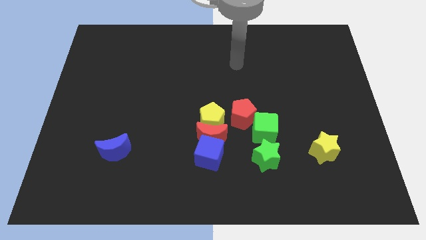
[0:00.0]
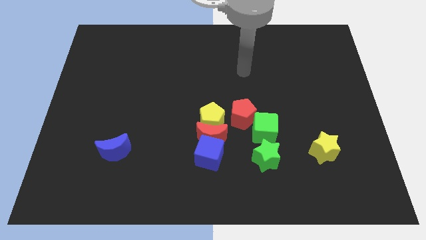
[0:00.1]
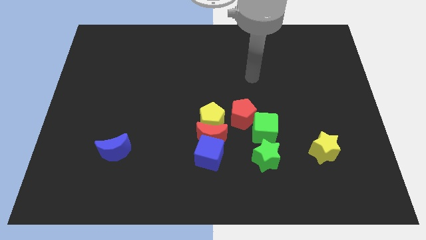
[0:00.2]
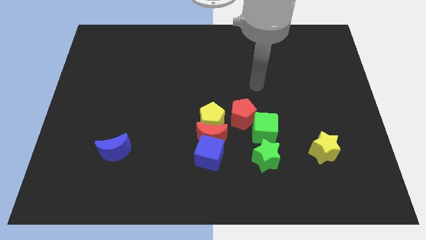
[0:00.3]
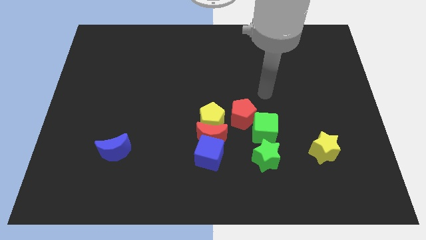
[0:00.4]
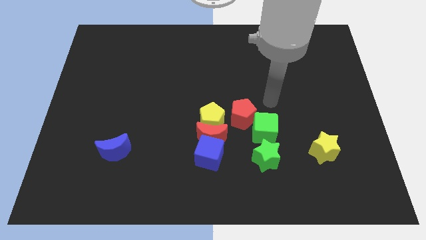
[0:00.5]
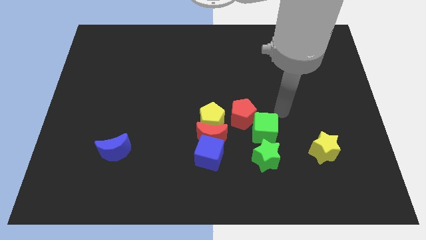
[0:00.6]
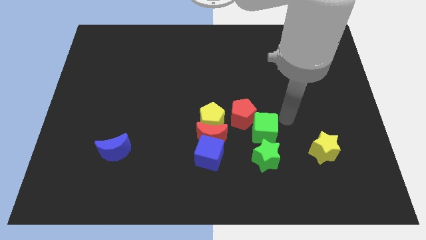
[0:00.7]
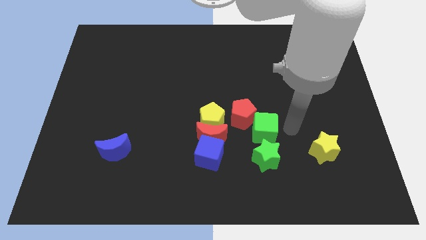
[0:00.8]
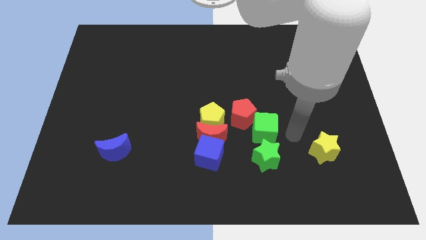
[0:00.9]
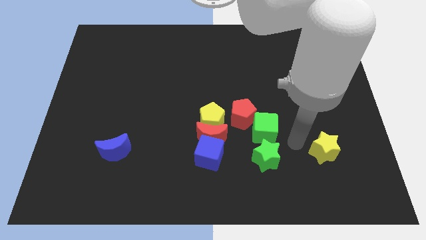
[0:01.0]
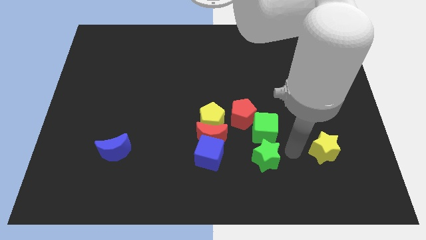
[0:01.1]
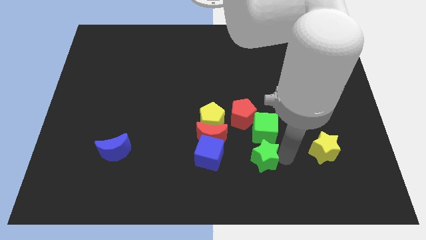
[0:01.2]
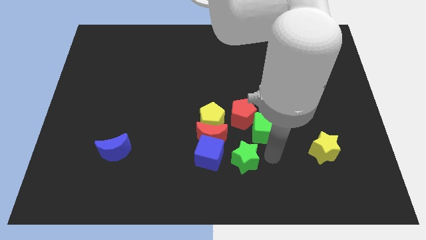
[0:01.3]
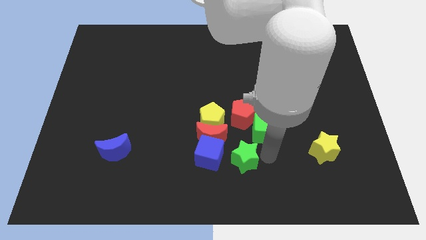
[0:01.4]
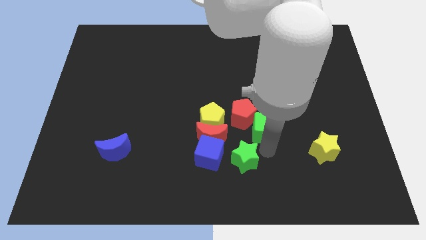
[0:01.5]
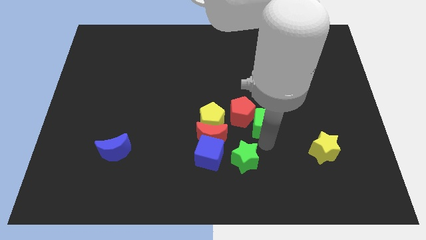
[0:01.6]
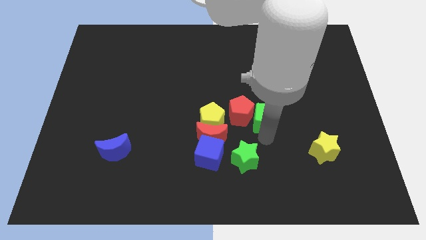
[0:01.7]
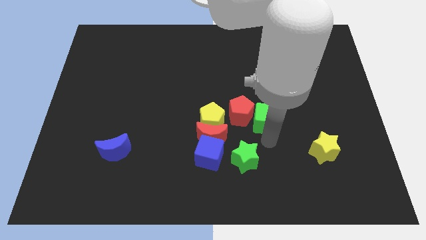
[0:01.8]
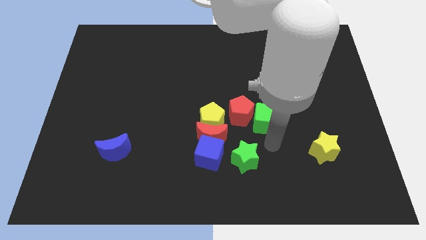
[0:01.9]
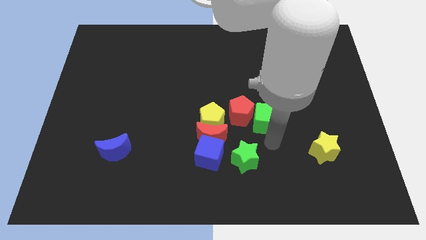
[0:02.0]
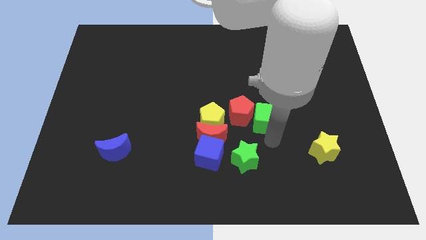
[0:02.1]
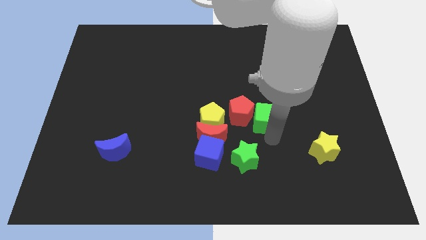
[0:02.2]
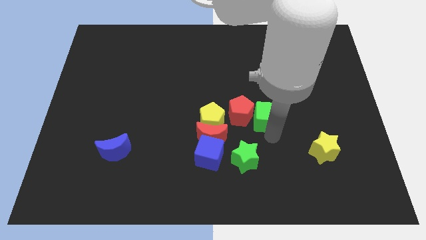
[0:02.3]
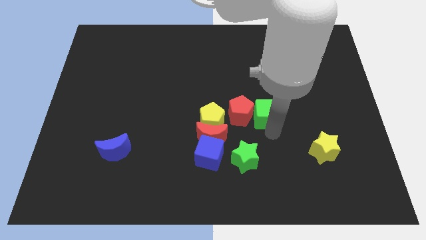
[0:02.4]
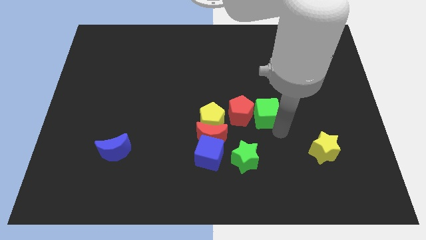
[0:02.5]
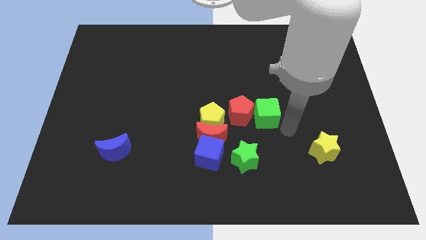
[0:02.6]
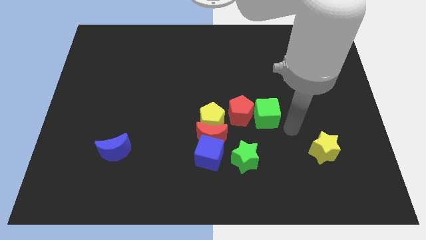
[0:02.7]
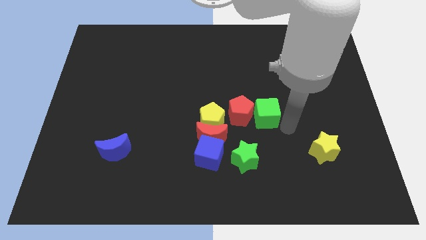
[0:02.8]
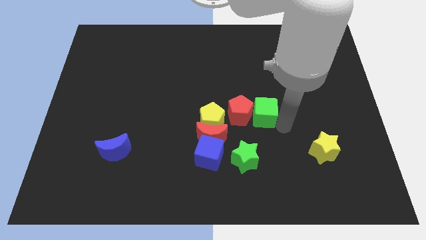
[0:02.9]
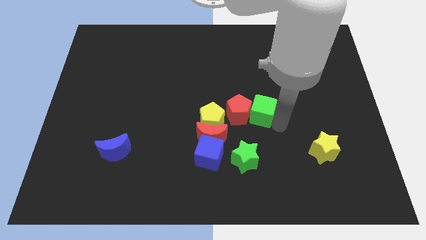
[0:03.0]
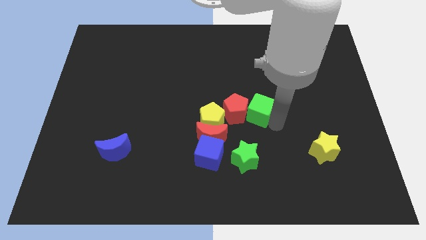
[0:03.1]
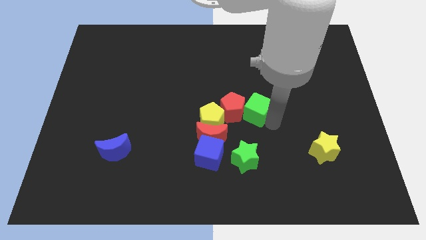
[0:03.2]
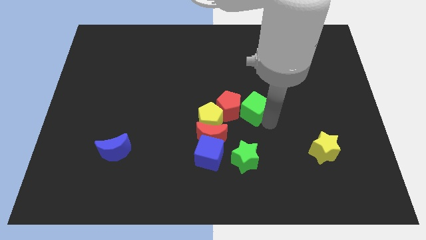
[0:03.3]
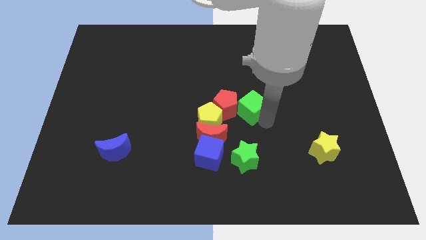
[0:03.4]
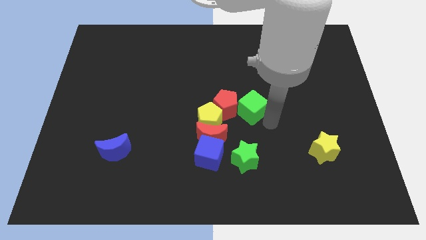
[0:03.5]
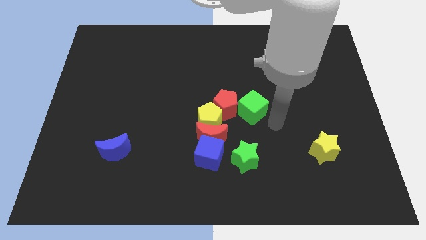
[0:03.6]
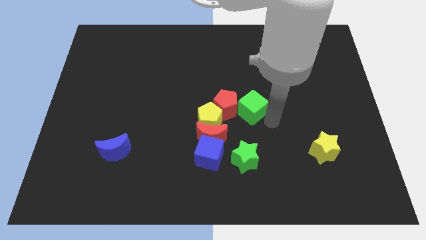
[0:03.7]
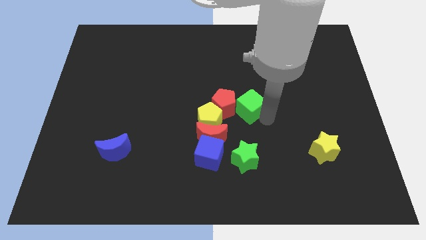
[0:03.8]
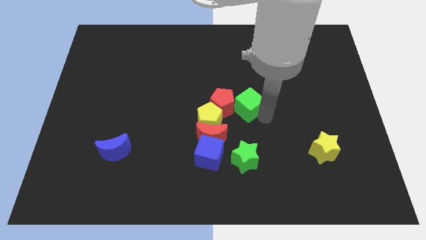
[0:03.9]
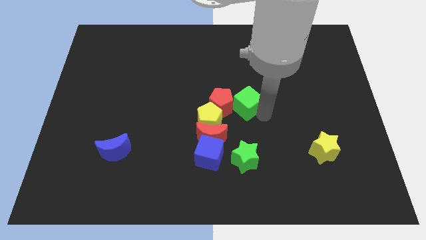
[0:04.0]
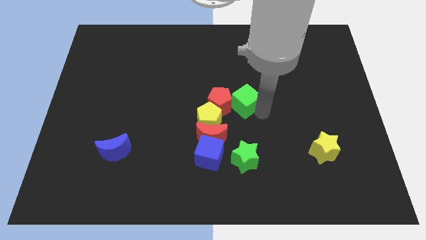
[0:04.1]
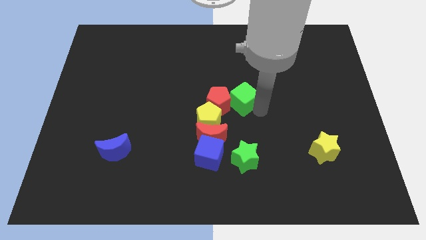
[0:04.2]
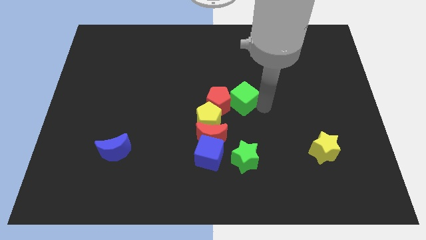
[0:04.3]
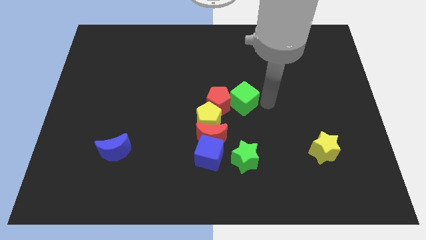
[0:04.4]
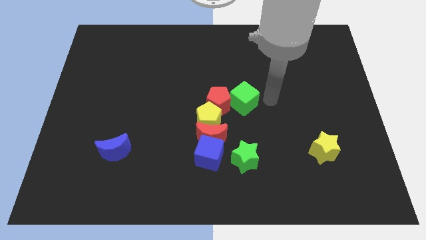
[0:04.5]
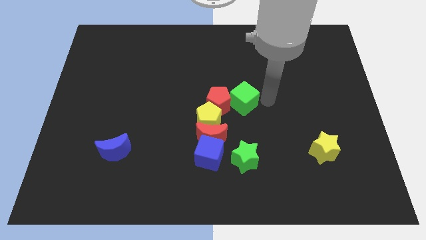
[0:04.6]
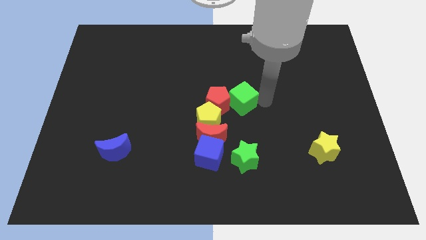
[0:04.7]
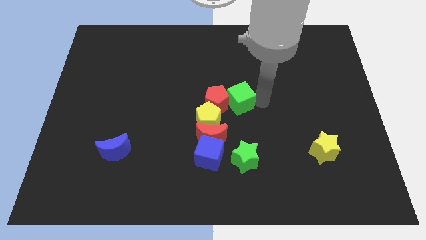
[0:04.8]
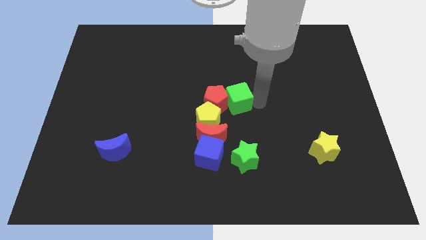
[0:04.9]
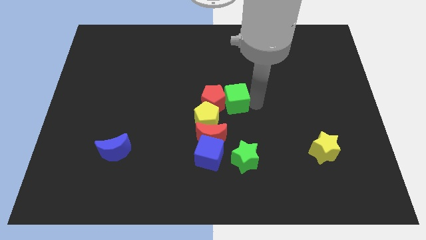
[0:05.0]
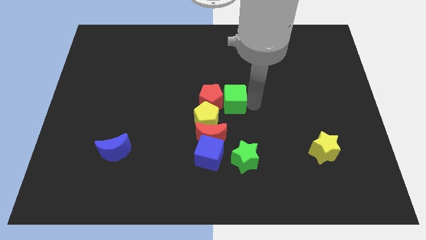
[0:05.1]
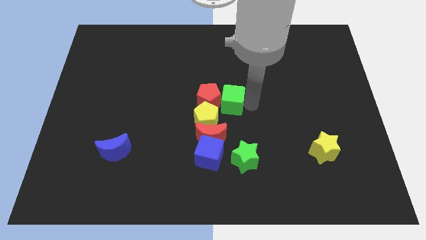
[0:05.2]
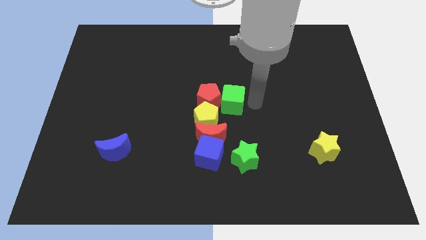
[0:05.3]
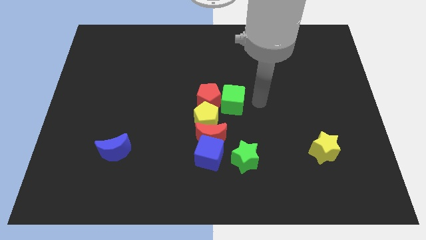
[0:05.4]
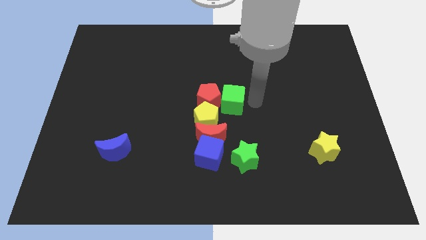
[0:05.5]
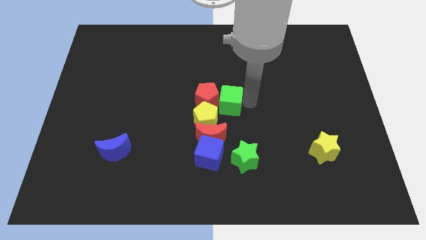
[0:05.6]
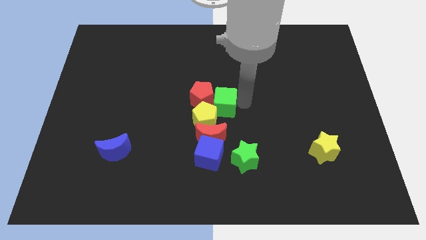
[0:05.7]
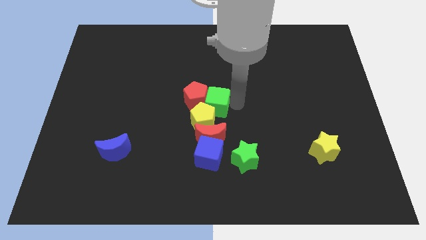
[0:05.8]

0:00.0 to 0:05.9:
slightly push the green cube to the left

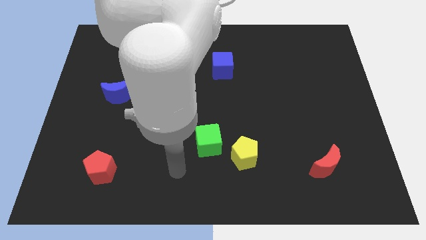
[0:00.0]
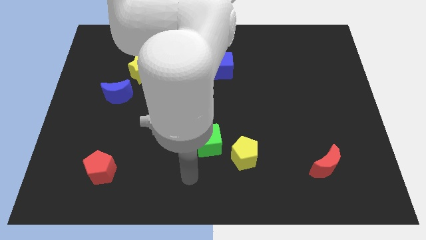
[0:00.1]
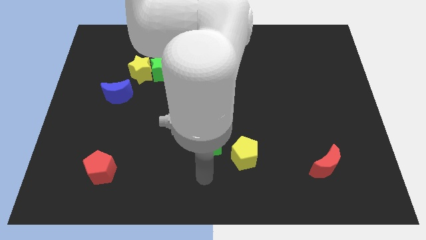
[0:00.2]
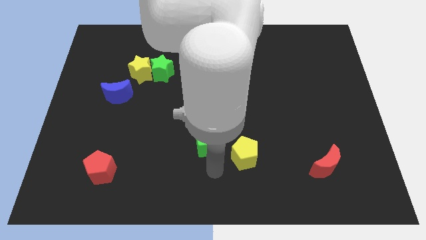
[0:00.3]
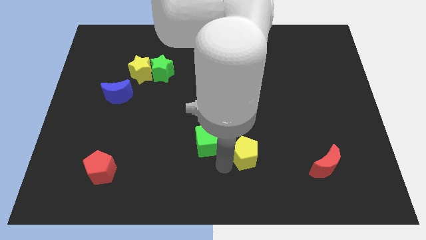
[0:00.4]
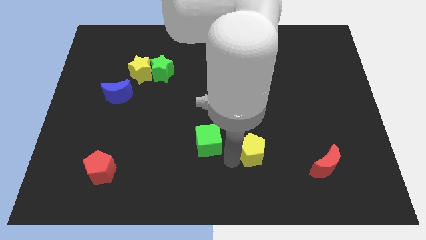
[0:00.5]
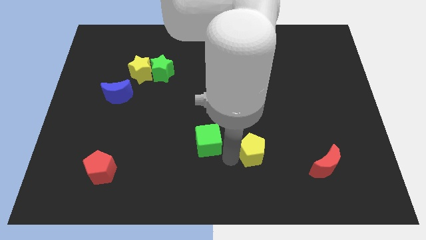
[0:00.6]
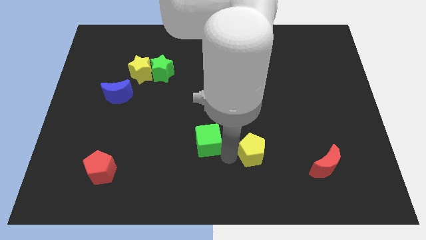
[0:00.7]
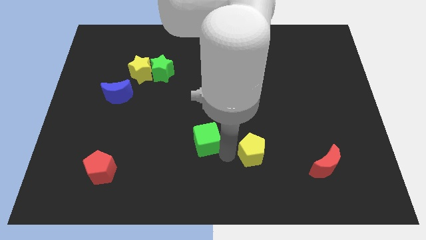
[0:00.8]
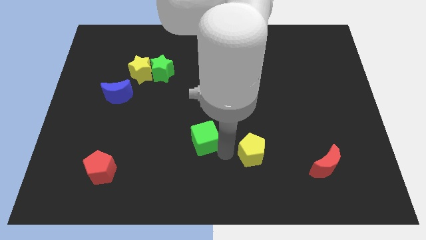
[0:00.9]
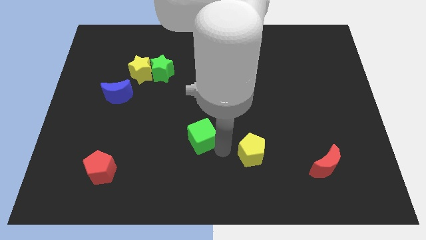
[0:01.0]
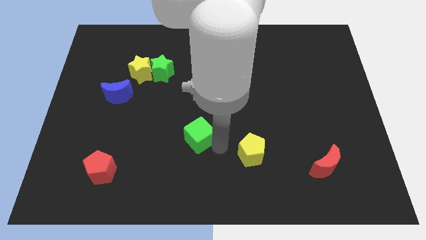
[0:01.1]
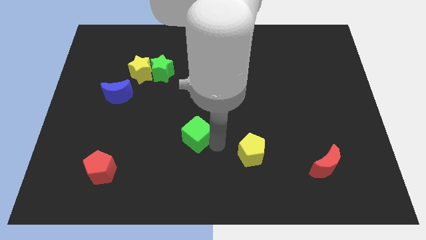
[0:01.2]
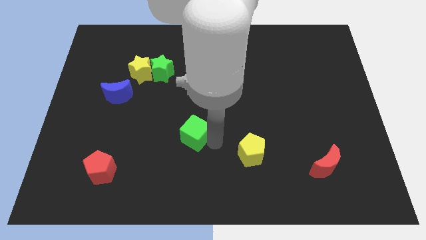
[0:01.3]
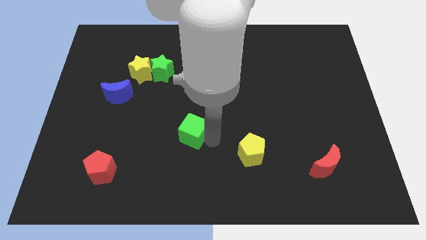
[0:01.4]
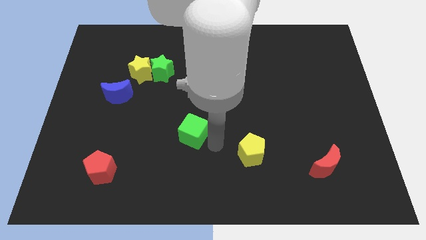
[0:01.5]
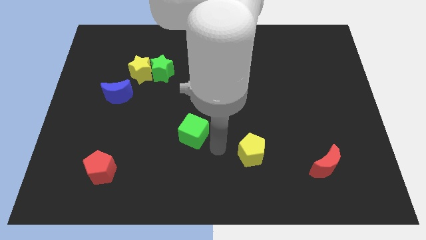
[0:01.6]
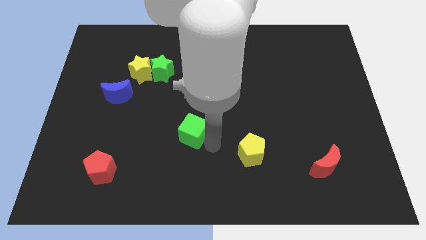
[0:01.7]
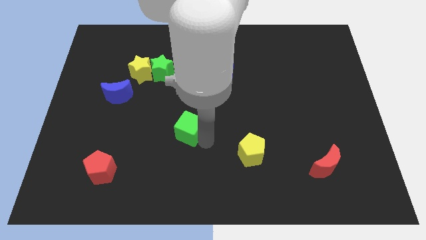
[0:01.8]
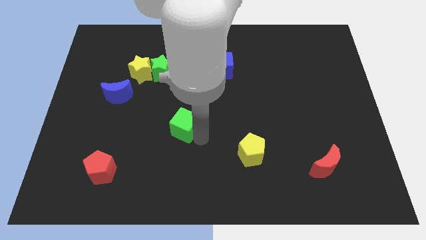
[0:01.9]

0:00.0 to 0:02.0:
slightly move the green cube diagonally upwards and left
